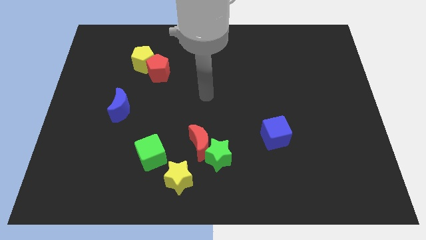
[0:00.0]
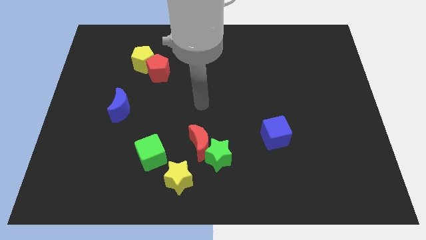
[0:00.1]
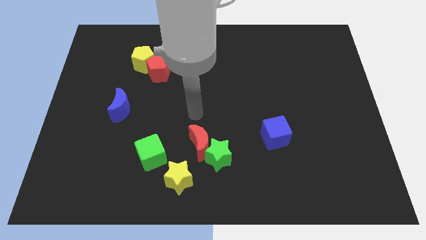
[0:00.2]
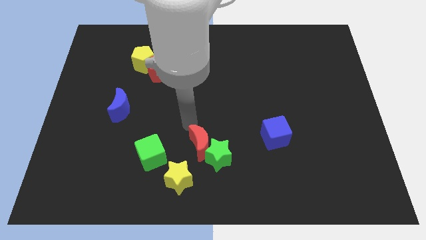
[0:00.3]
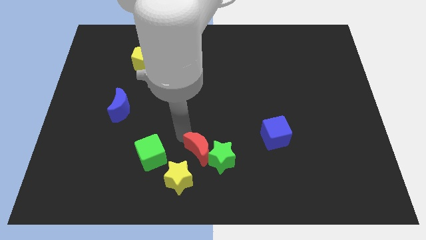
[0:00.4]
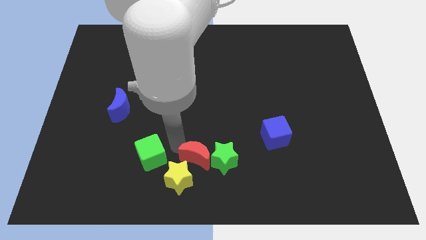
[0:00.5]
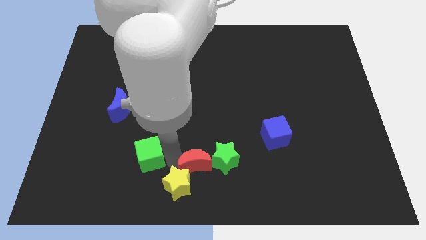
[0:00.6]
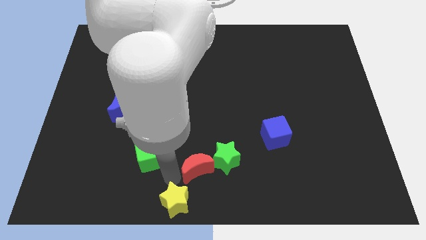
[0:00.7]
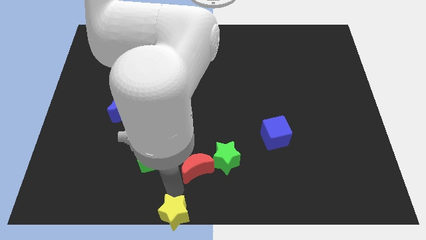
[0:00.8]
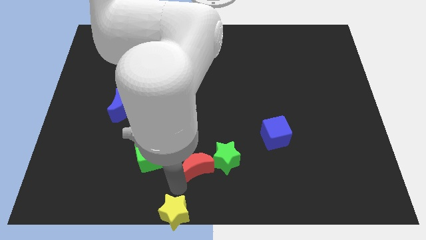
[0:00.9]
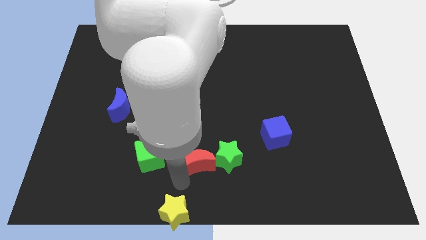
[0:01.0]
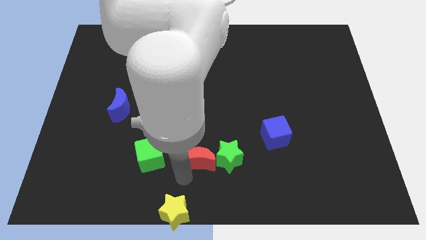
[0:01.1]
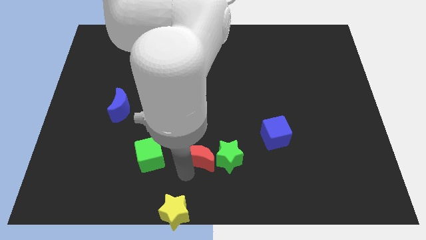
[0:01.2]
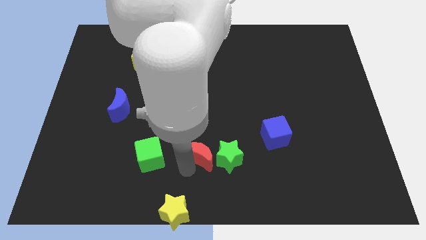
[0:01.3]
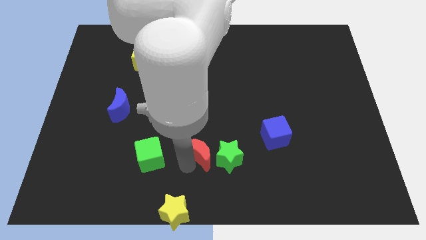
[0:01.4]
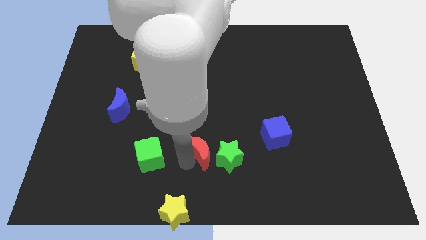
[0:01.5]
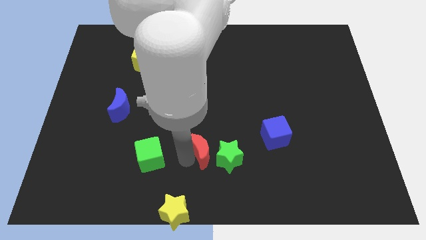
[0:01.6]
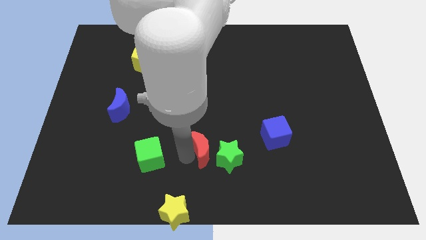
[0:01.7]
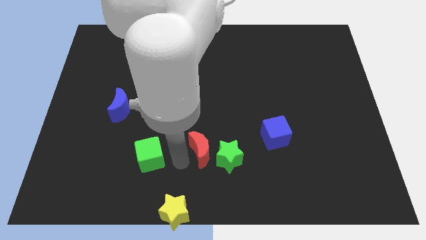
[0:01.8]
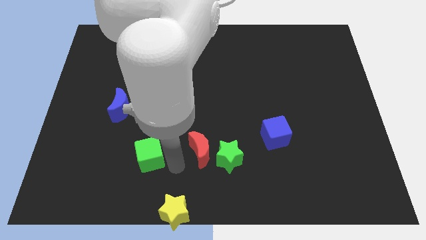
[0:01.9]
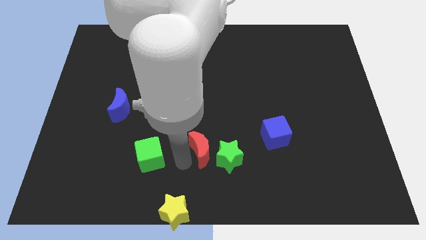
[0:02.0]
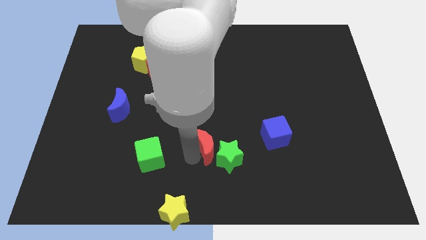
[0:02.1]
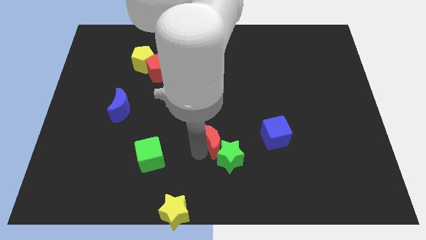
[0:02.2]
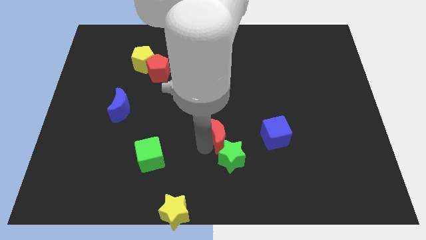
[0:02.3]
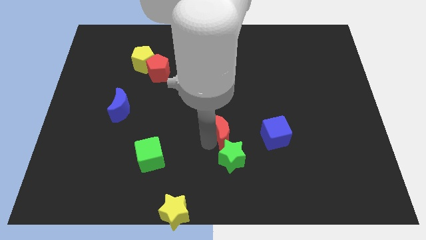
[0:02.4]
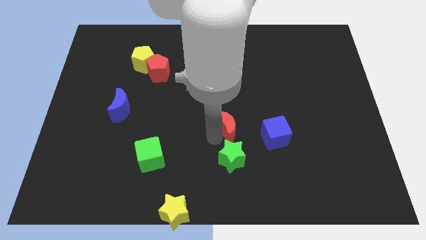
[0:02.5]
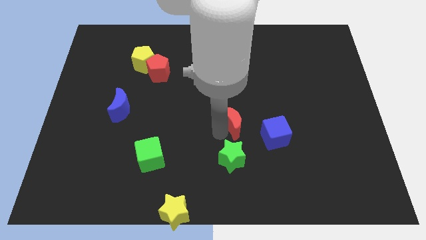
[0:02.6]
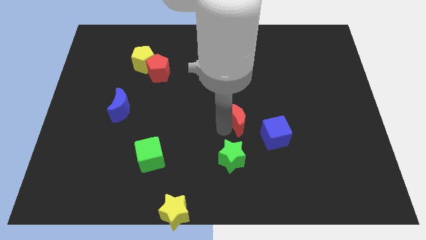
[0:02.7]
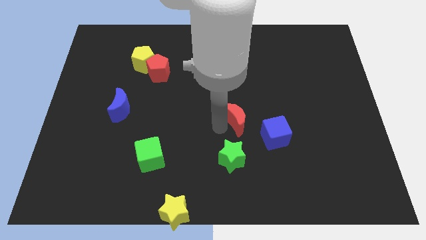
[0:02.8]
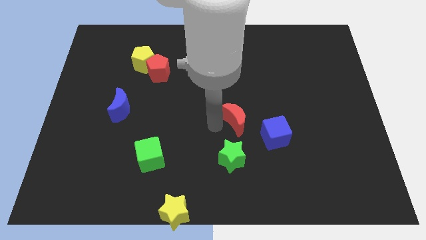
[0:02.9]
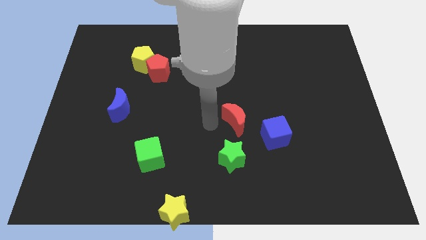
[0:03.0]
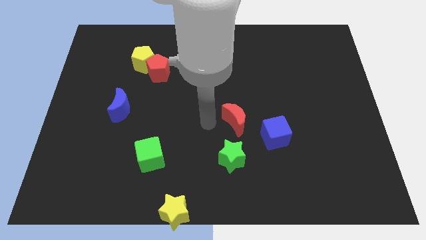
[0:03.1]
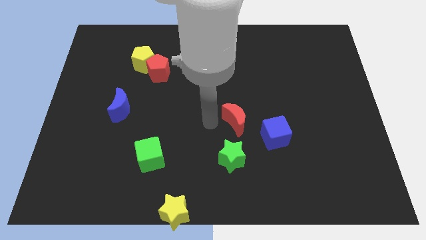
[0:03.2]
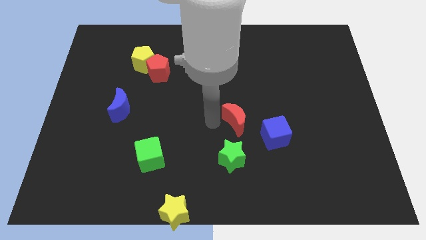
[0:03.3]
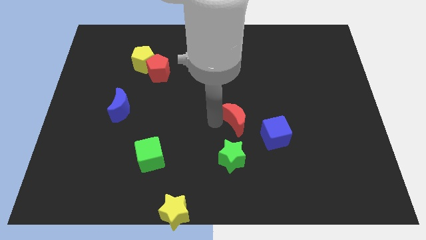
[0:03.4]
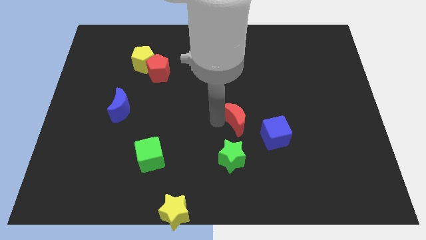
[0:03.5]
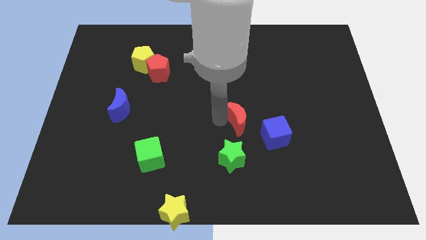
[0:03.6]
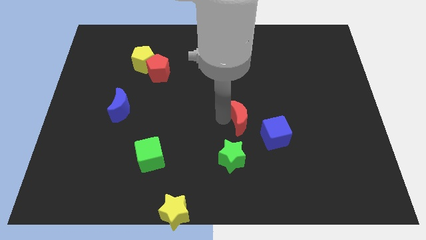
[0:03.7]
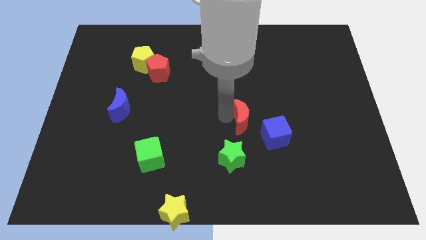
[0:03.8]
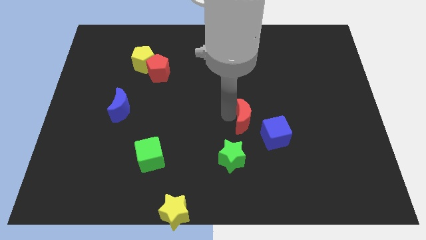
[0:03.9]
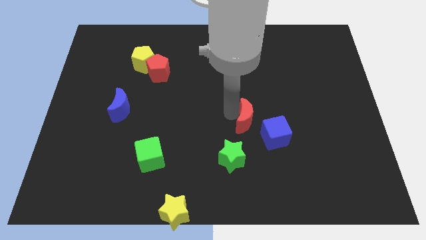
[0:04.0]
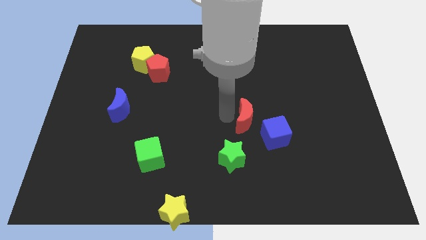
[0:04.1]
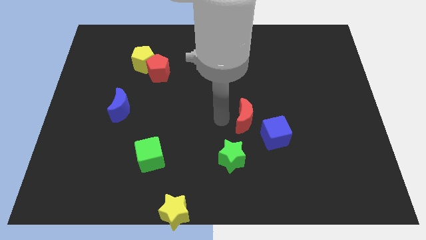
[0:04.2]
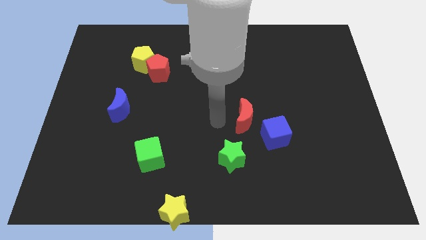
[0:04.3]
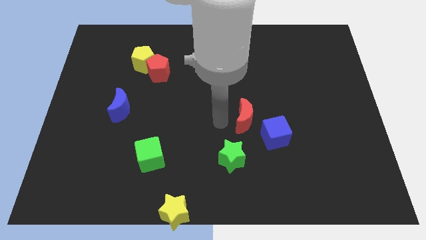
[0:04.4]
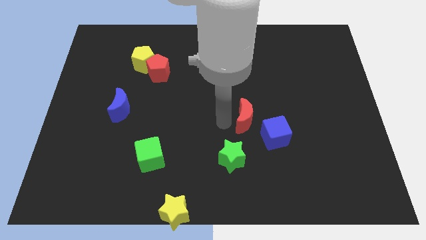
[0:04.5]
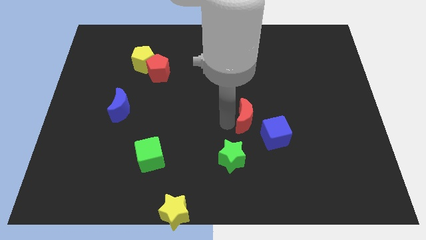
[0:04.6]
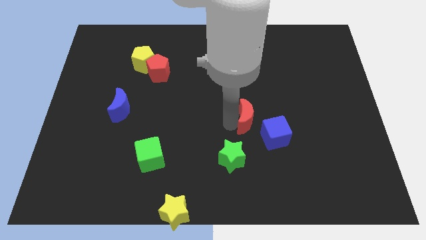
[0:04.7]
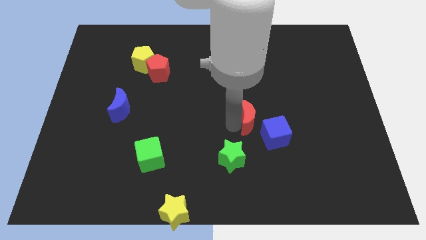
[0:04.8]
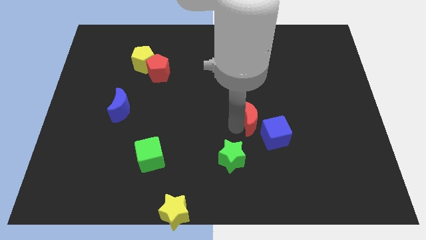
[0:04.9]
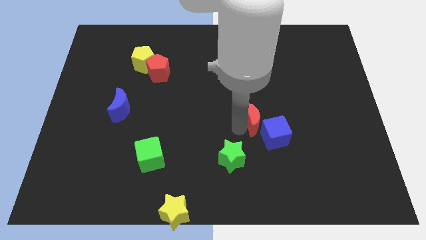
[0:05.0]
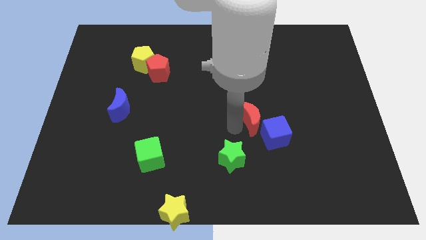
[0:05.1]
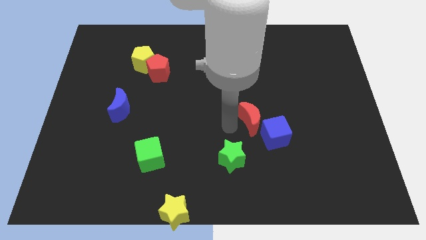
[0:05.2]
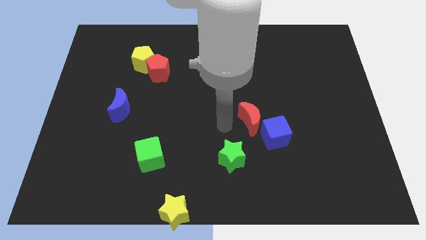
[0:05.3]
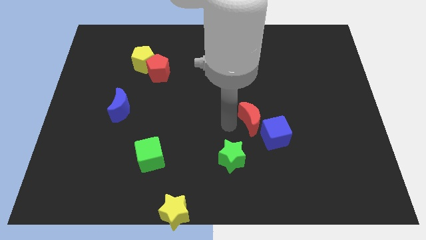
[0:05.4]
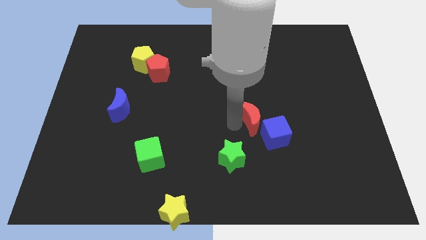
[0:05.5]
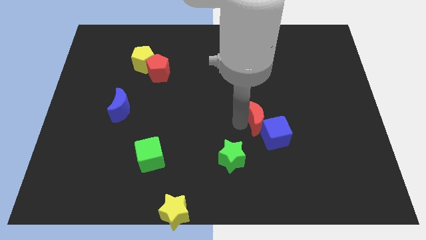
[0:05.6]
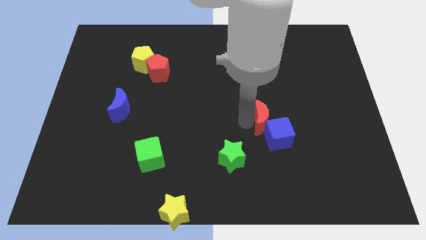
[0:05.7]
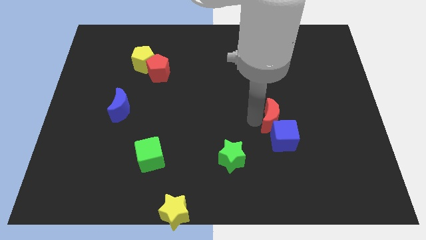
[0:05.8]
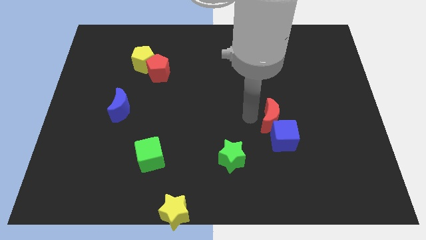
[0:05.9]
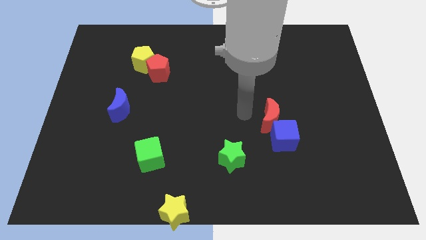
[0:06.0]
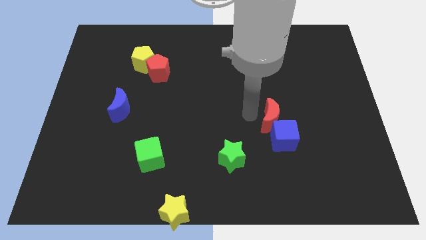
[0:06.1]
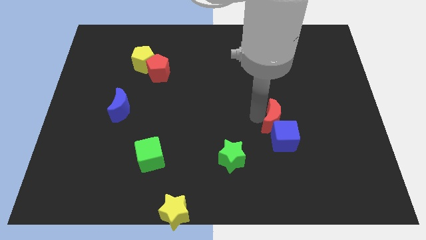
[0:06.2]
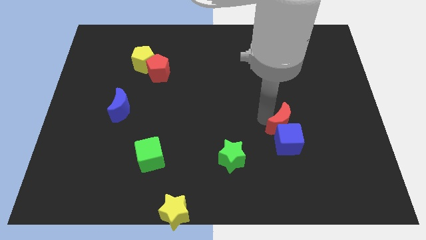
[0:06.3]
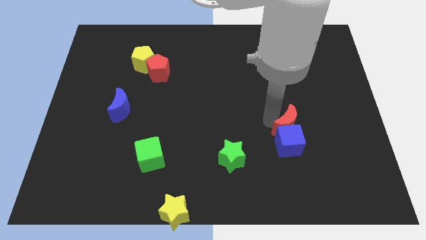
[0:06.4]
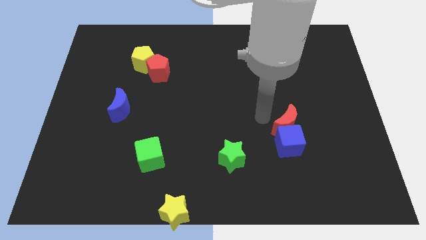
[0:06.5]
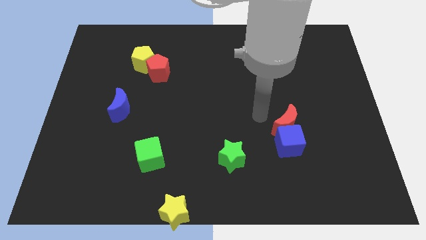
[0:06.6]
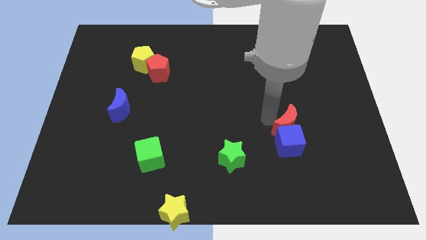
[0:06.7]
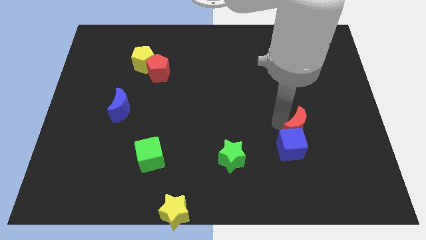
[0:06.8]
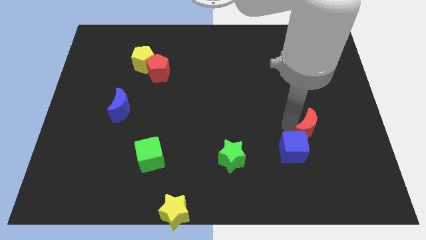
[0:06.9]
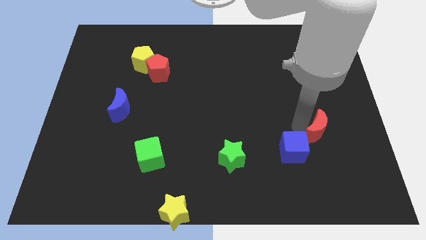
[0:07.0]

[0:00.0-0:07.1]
push the red moon just right of the blue cube

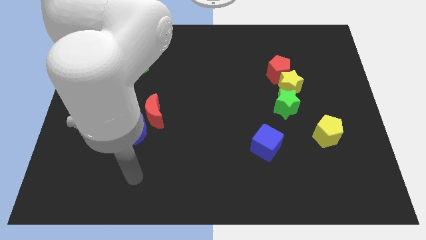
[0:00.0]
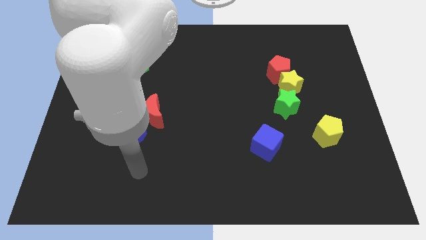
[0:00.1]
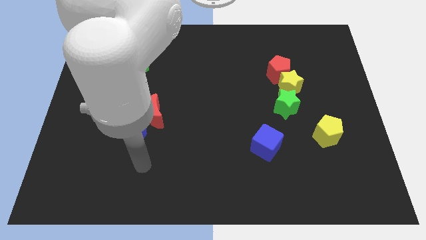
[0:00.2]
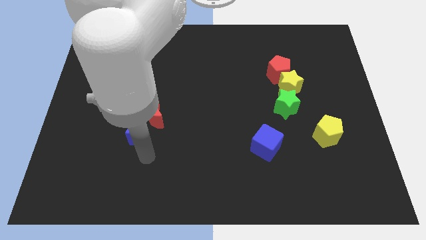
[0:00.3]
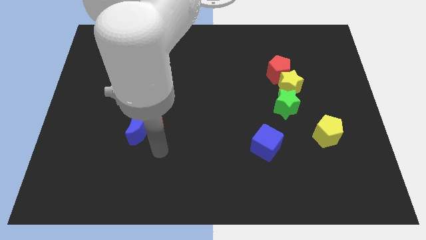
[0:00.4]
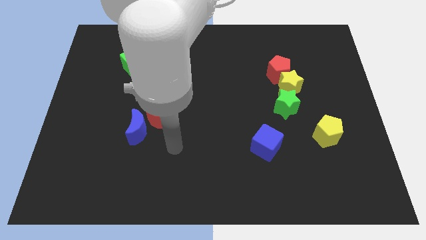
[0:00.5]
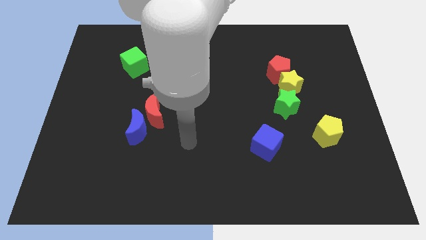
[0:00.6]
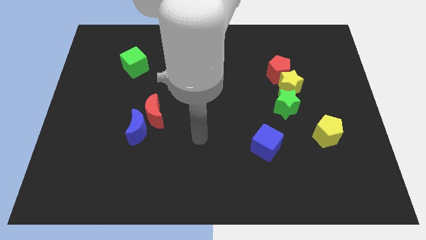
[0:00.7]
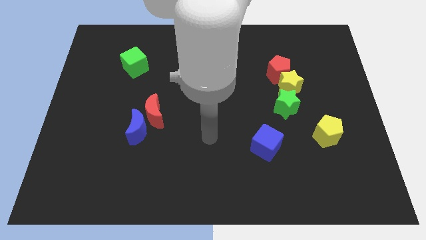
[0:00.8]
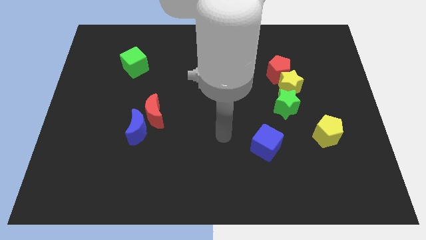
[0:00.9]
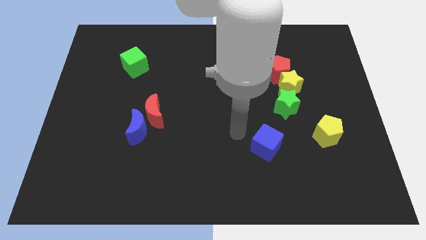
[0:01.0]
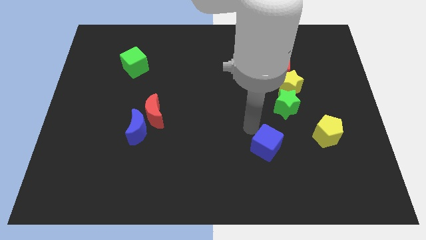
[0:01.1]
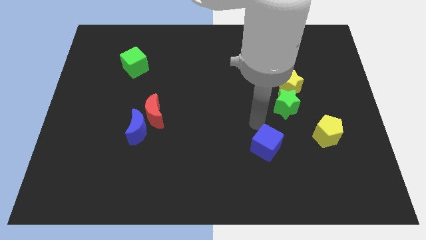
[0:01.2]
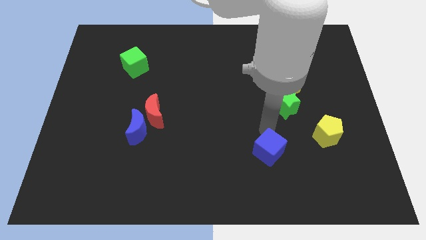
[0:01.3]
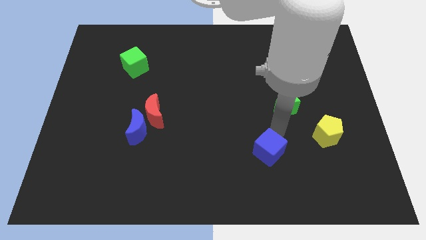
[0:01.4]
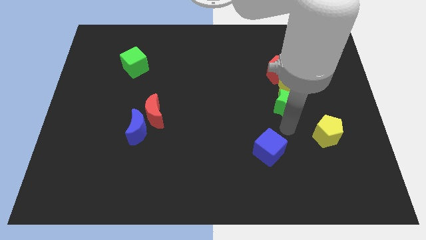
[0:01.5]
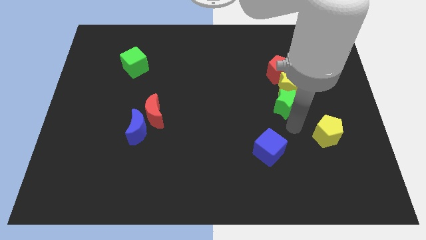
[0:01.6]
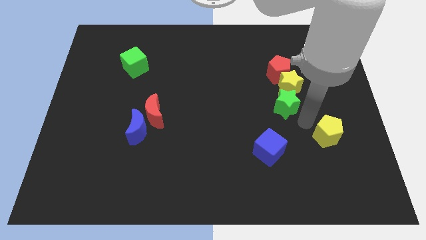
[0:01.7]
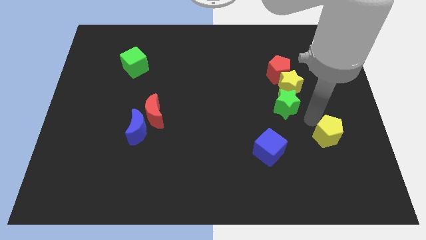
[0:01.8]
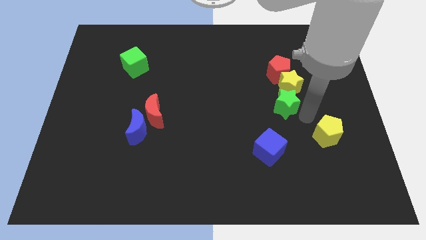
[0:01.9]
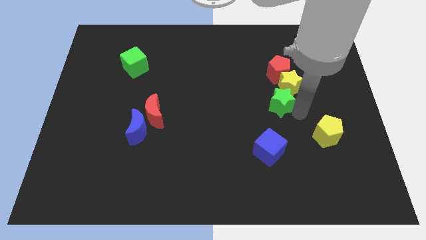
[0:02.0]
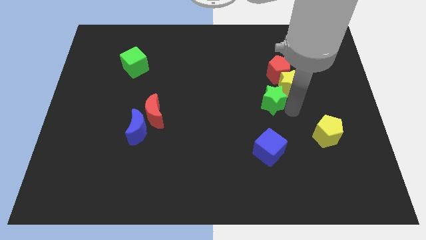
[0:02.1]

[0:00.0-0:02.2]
put the green star left of the yellow star
